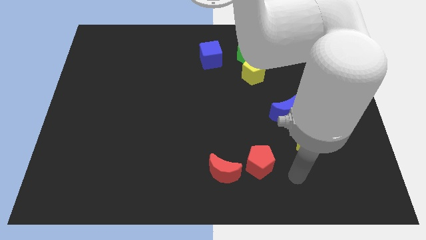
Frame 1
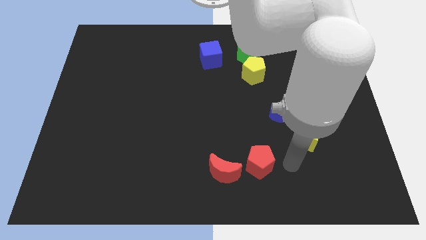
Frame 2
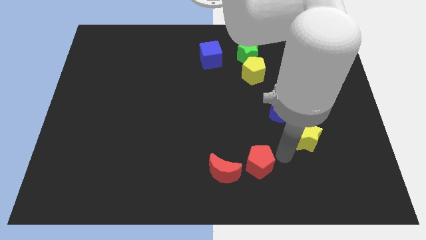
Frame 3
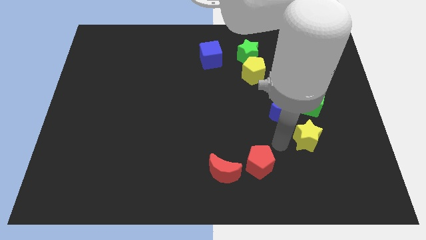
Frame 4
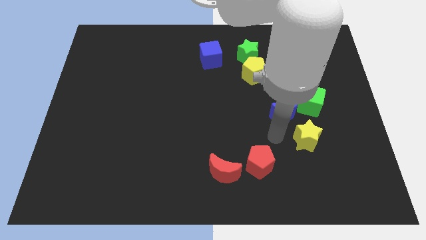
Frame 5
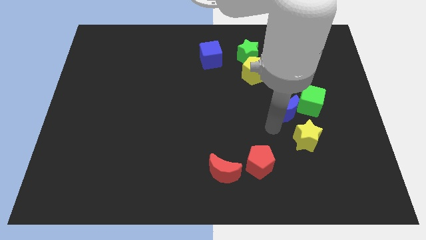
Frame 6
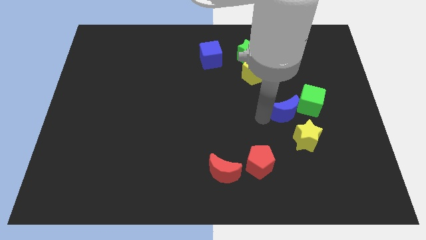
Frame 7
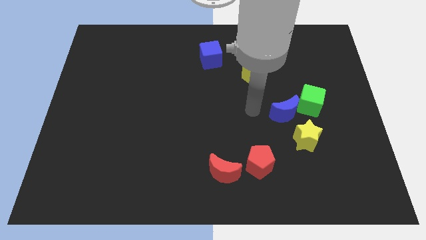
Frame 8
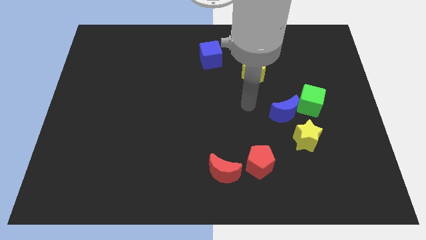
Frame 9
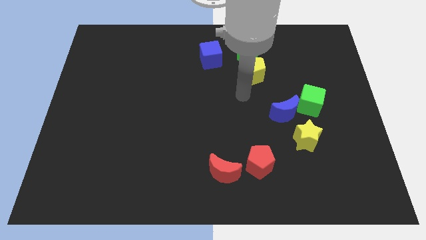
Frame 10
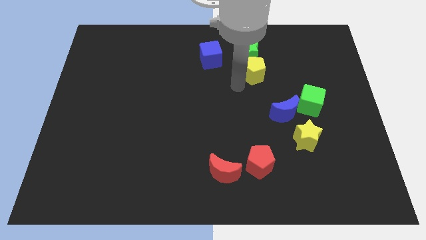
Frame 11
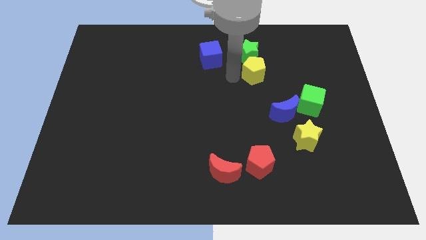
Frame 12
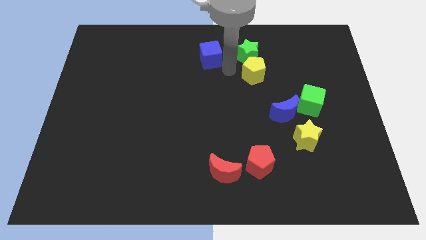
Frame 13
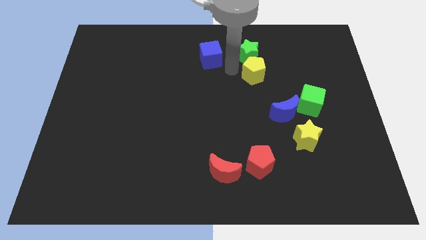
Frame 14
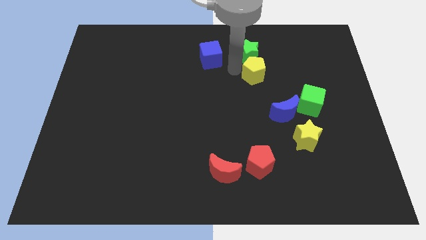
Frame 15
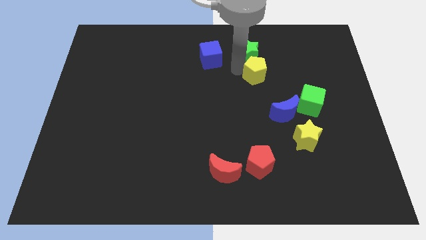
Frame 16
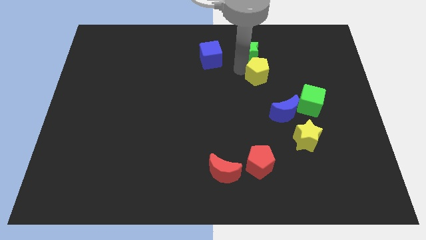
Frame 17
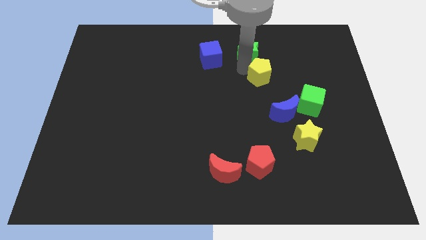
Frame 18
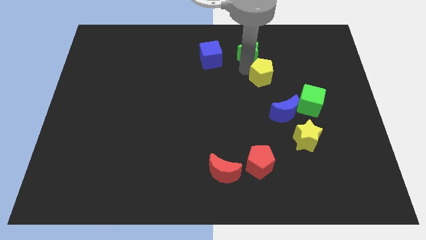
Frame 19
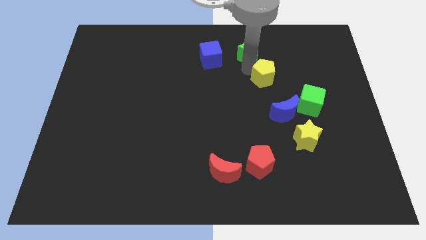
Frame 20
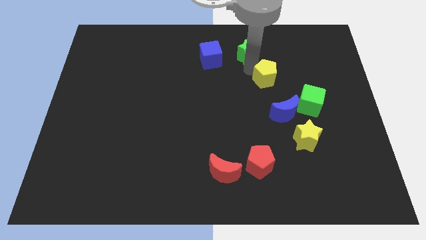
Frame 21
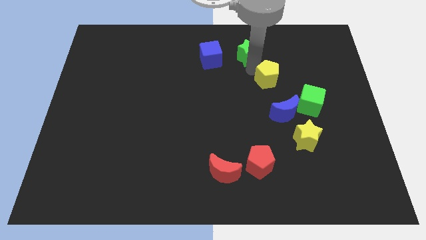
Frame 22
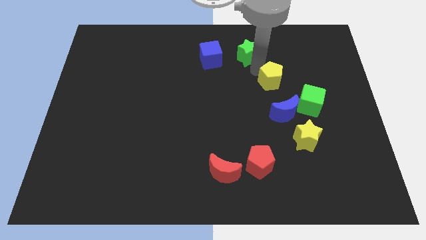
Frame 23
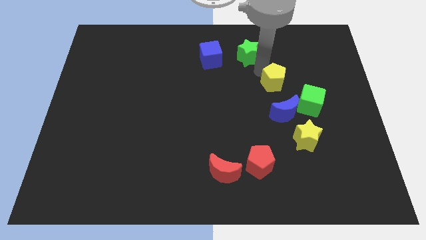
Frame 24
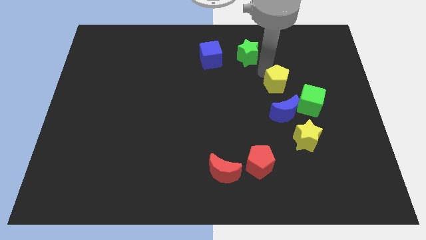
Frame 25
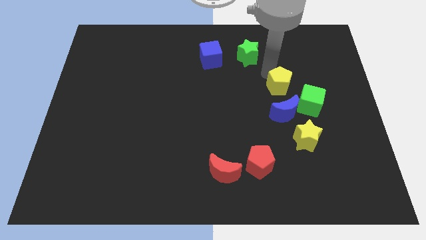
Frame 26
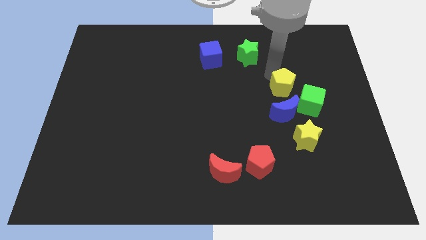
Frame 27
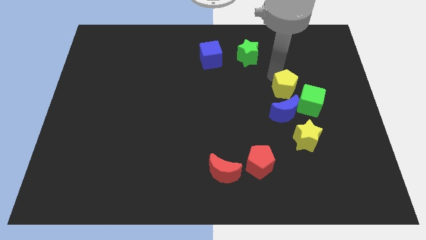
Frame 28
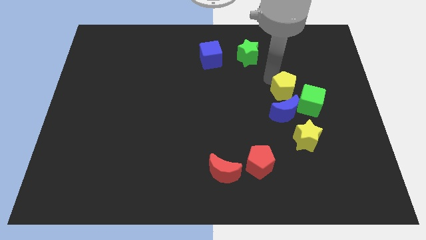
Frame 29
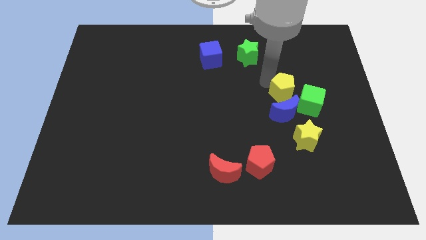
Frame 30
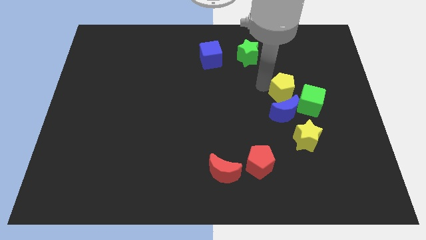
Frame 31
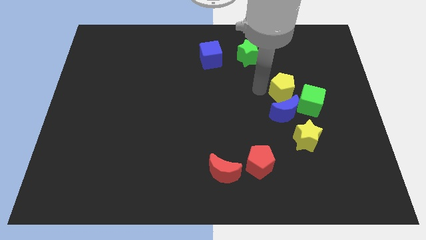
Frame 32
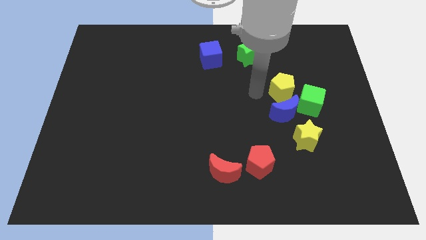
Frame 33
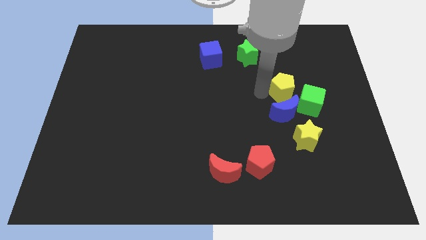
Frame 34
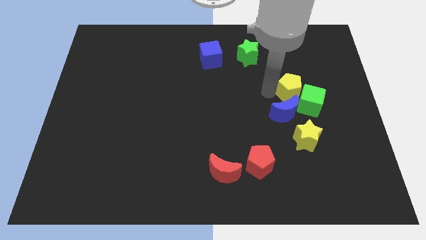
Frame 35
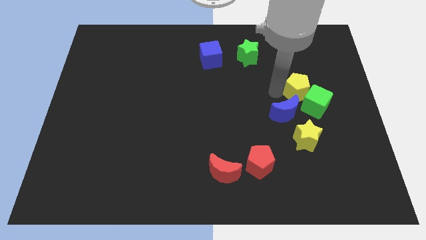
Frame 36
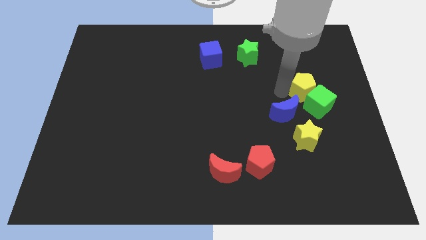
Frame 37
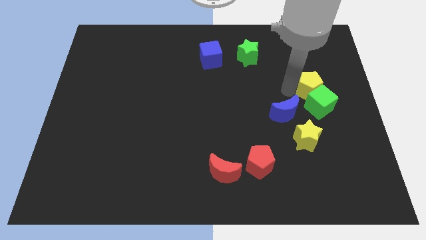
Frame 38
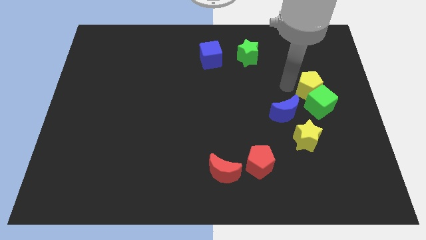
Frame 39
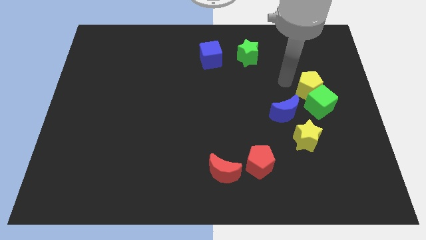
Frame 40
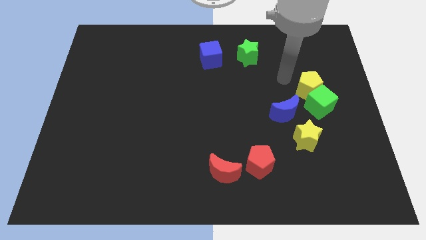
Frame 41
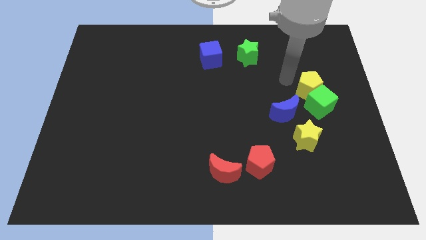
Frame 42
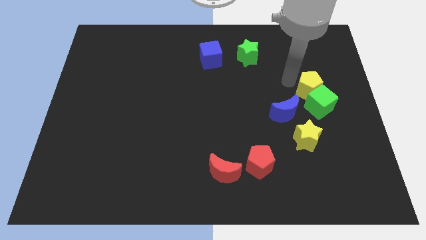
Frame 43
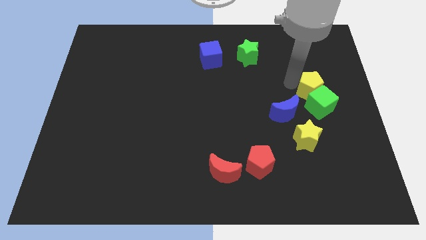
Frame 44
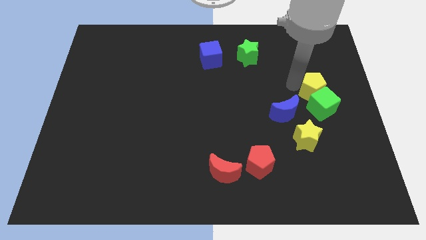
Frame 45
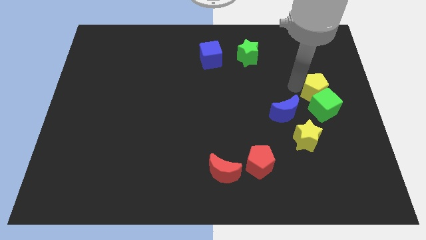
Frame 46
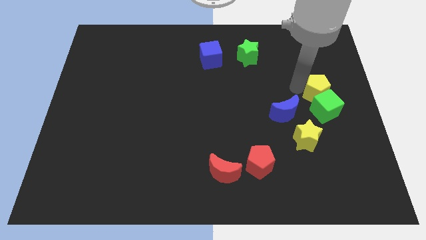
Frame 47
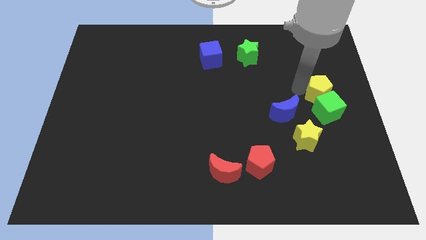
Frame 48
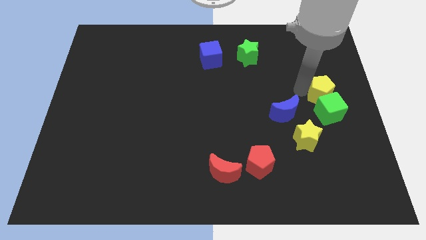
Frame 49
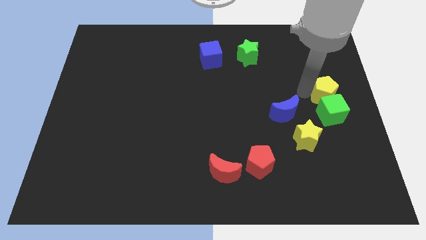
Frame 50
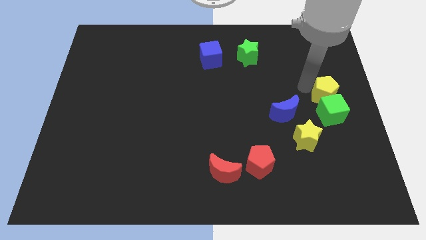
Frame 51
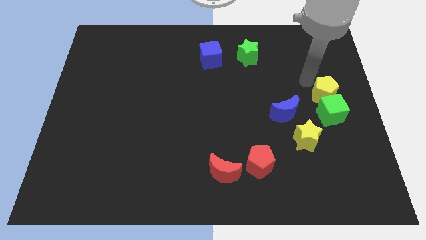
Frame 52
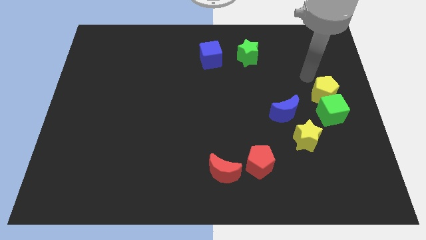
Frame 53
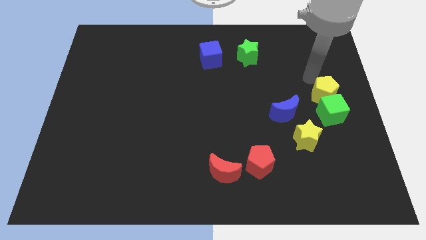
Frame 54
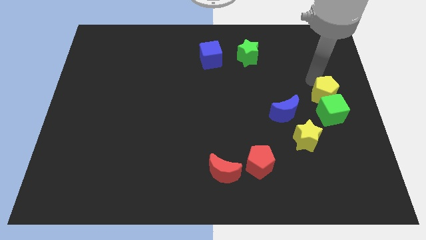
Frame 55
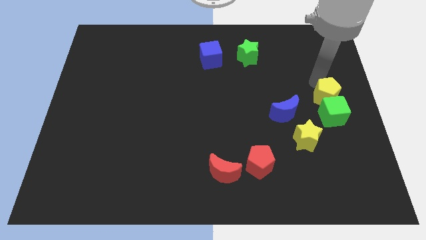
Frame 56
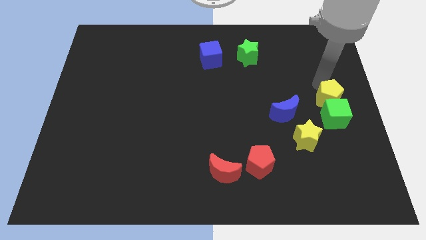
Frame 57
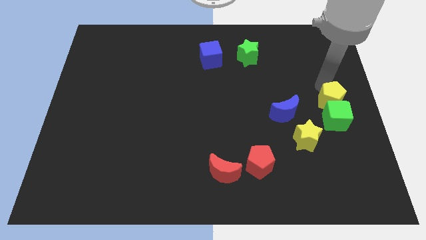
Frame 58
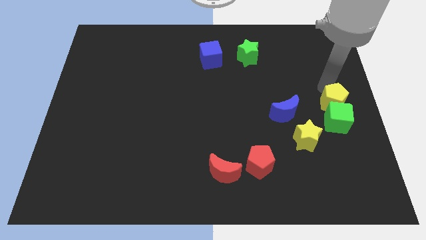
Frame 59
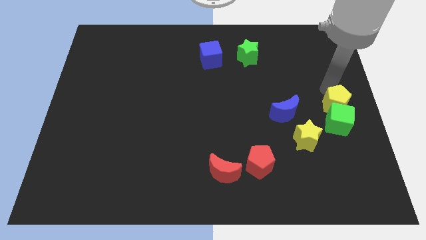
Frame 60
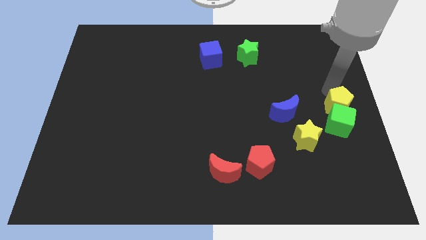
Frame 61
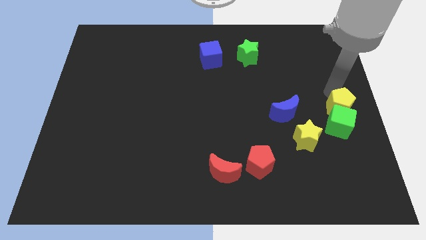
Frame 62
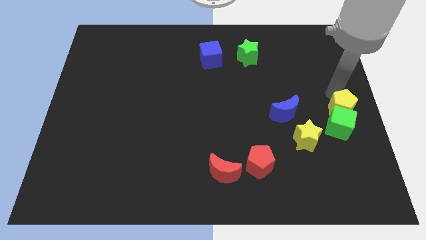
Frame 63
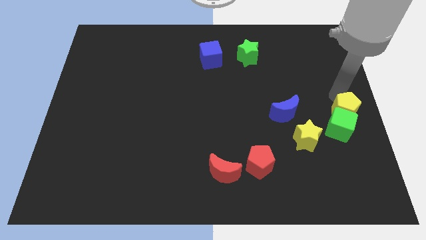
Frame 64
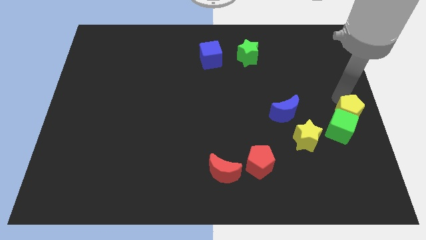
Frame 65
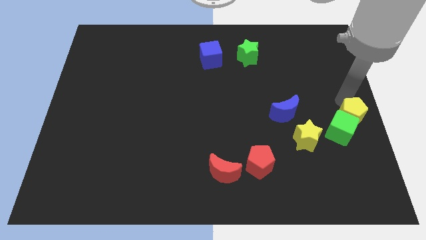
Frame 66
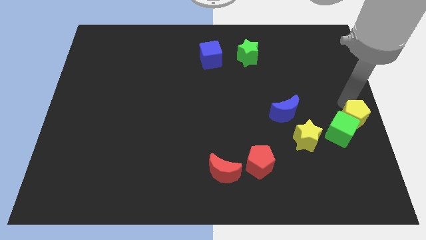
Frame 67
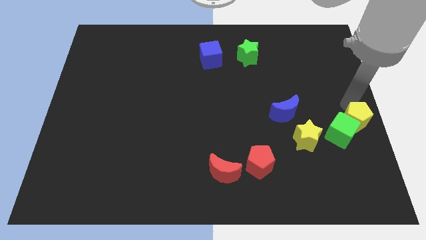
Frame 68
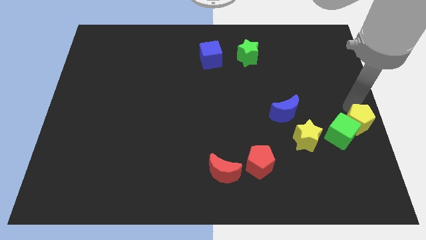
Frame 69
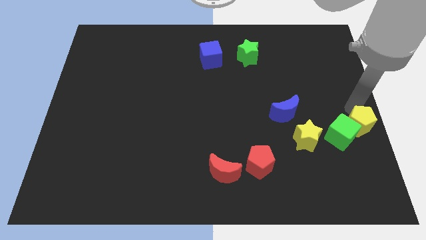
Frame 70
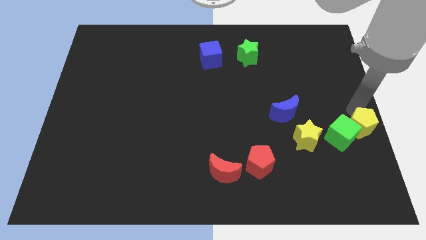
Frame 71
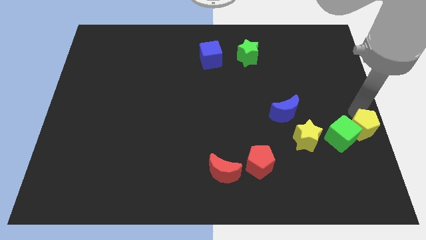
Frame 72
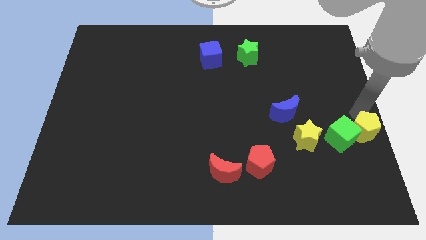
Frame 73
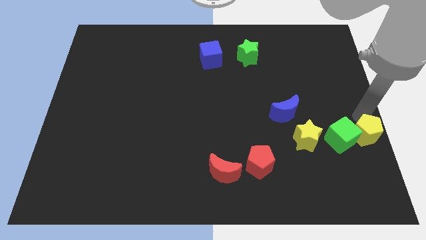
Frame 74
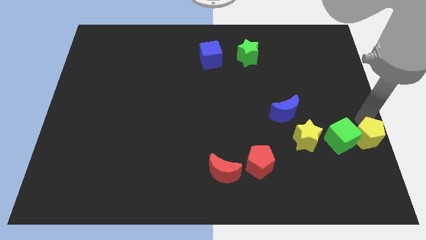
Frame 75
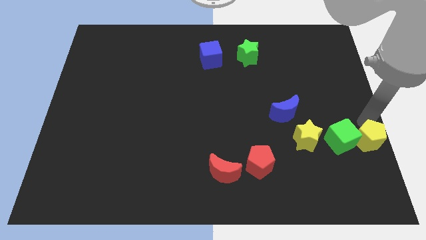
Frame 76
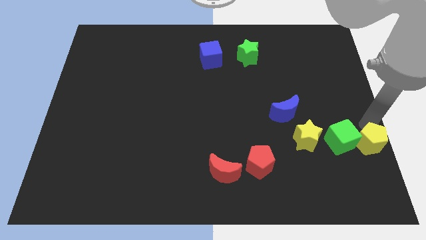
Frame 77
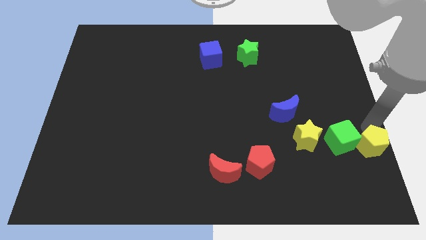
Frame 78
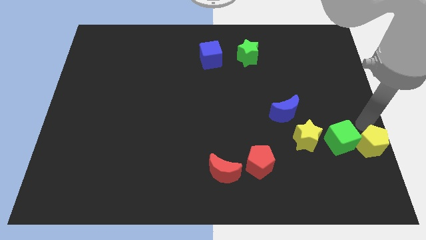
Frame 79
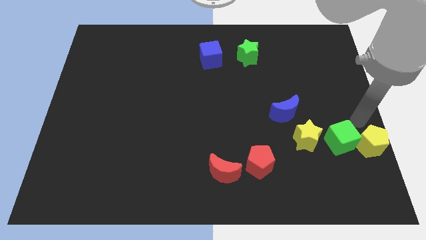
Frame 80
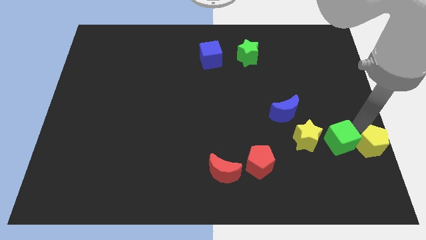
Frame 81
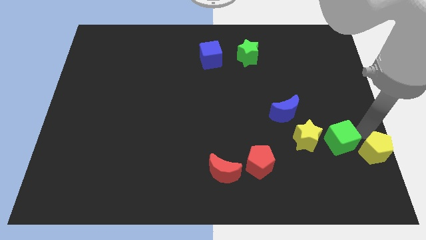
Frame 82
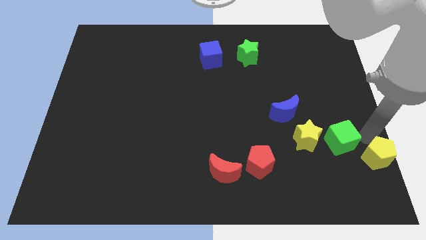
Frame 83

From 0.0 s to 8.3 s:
put the yellow pentagon to the lower right corner
